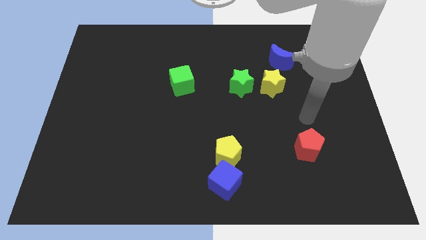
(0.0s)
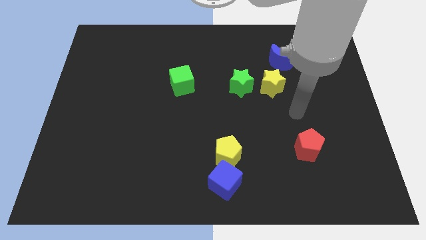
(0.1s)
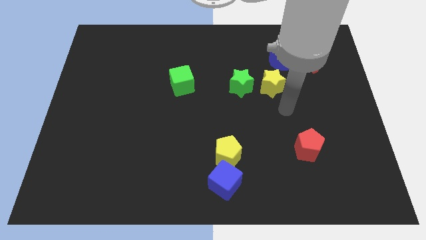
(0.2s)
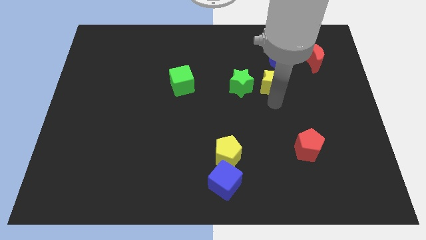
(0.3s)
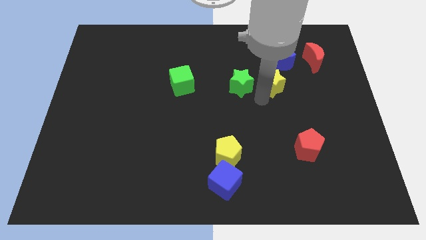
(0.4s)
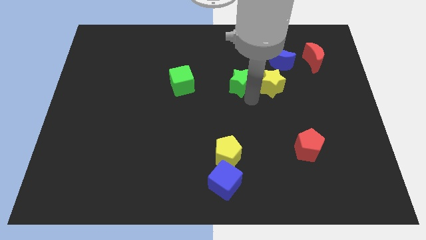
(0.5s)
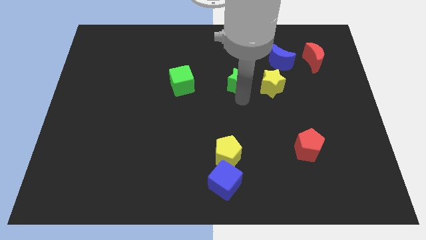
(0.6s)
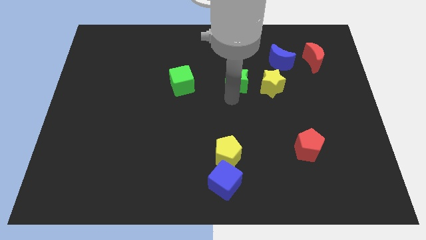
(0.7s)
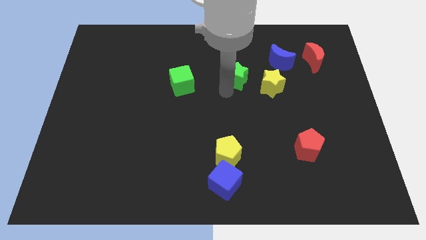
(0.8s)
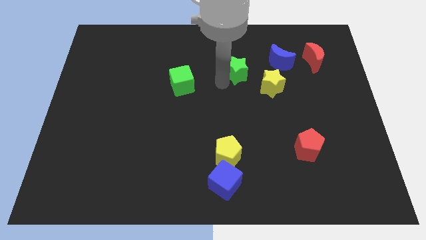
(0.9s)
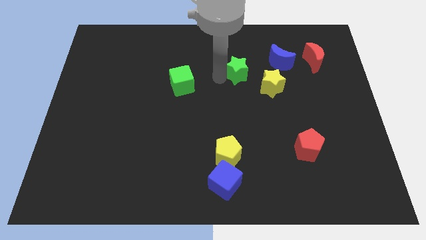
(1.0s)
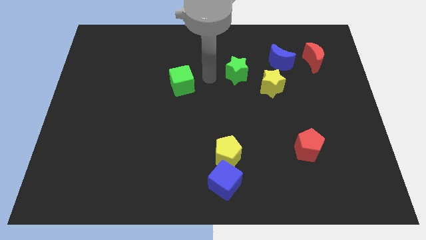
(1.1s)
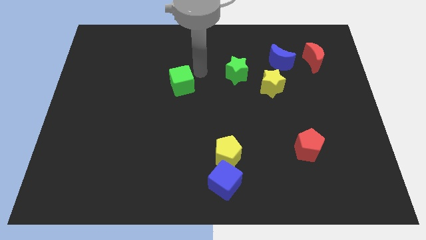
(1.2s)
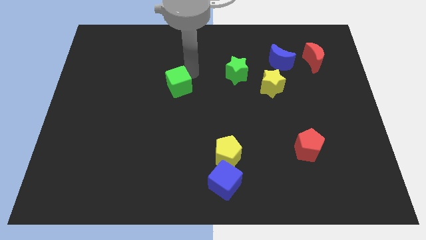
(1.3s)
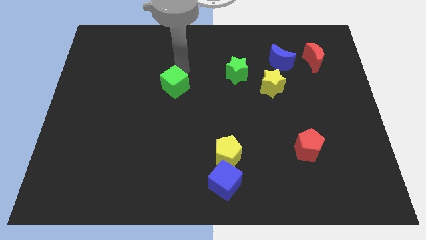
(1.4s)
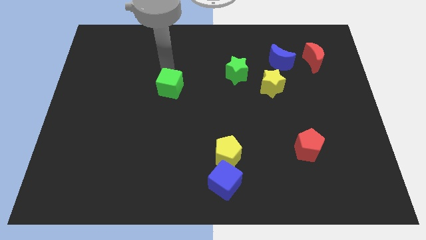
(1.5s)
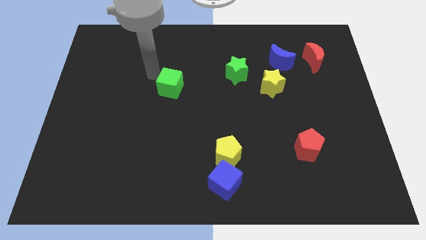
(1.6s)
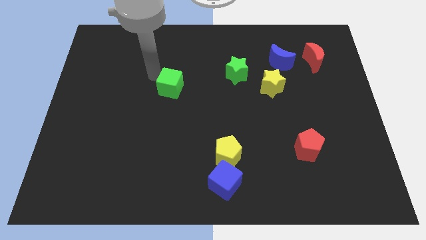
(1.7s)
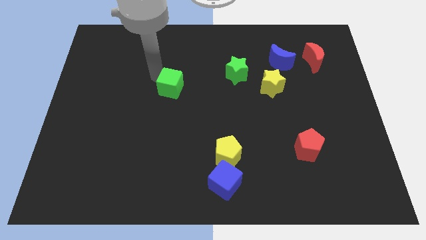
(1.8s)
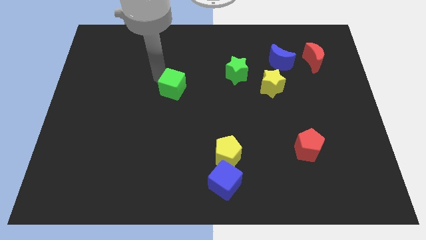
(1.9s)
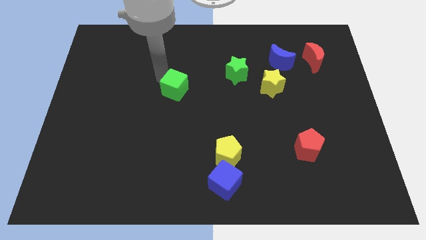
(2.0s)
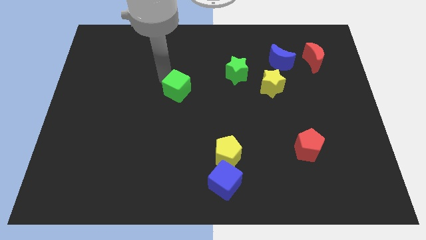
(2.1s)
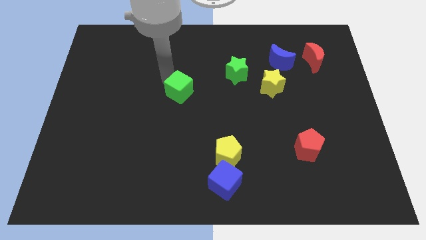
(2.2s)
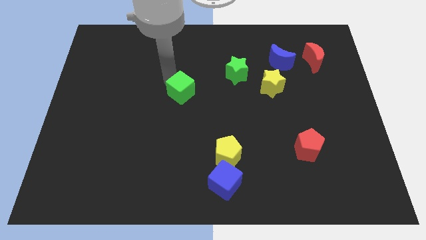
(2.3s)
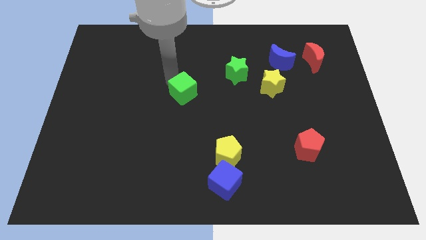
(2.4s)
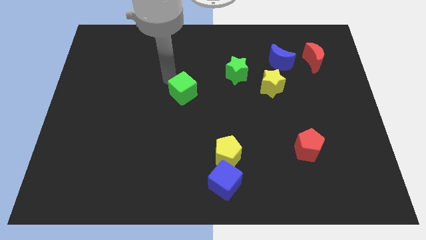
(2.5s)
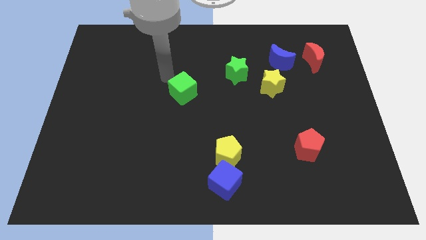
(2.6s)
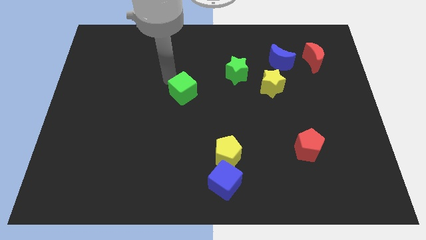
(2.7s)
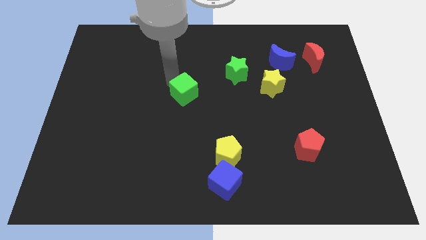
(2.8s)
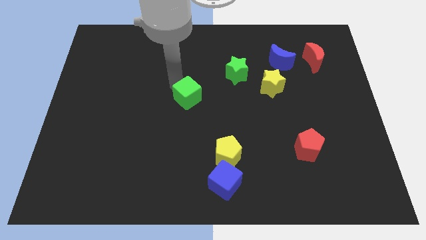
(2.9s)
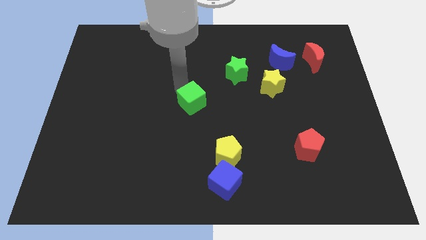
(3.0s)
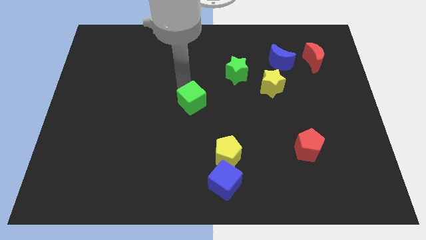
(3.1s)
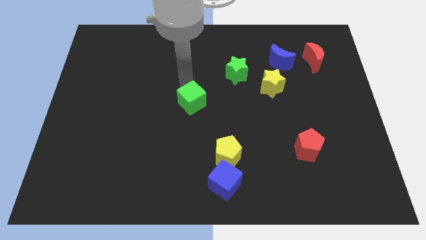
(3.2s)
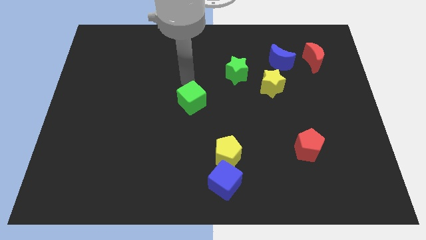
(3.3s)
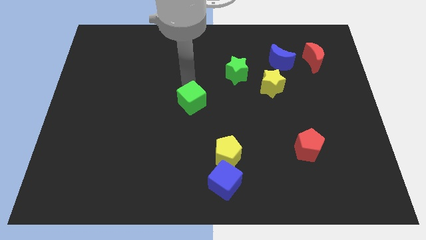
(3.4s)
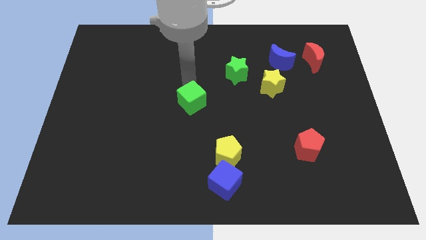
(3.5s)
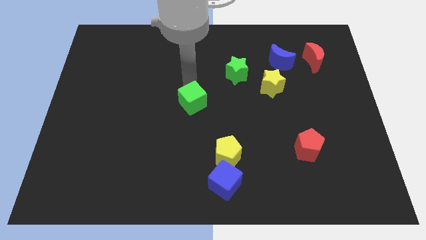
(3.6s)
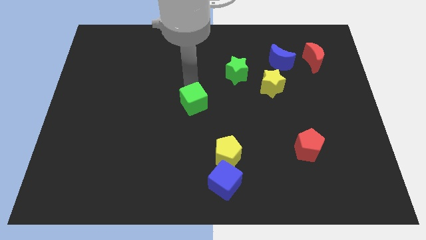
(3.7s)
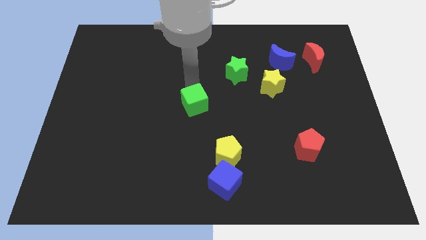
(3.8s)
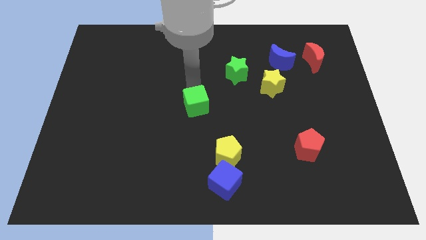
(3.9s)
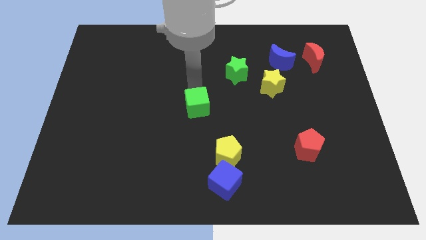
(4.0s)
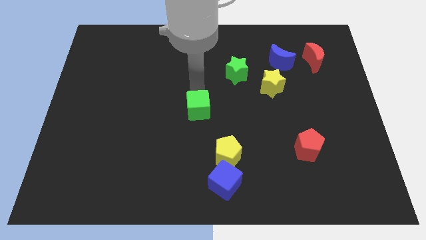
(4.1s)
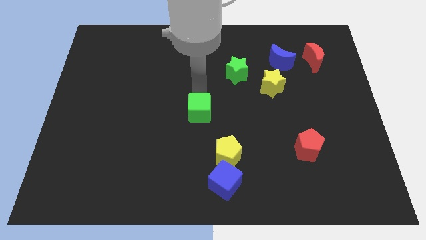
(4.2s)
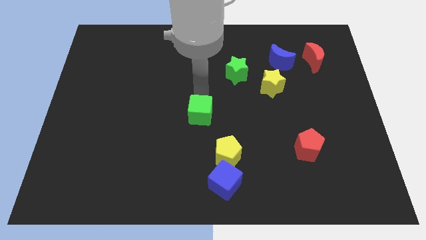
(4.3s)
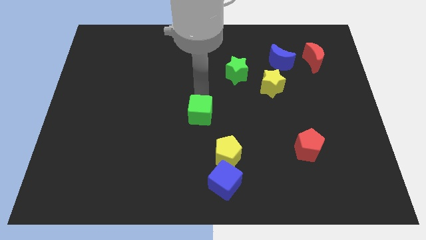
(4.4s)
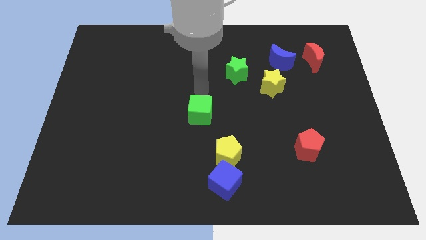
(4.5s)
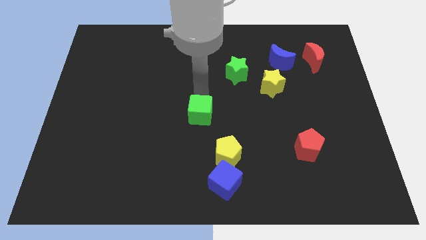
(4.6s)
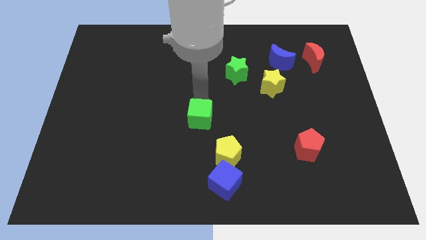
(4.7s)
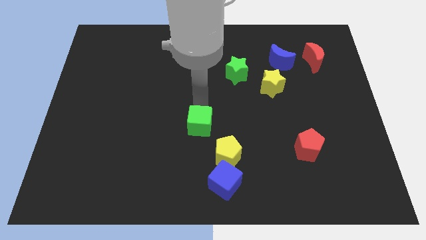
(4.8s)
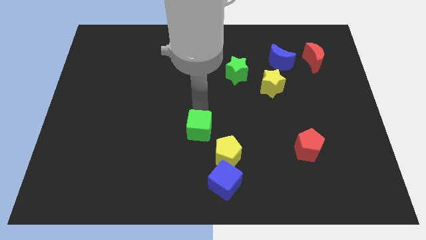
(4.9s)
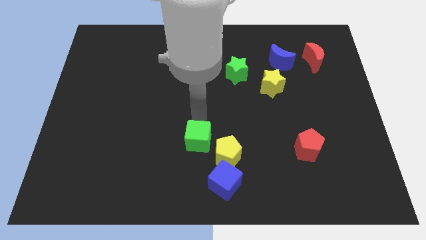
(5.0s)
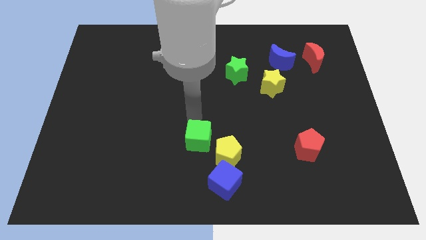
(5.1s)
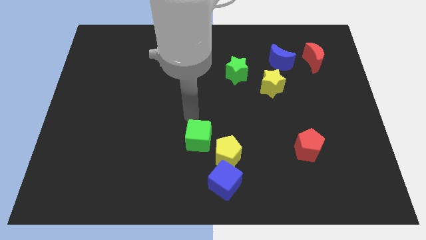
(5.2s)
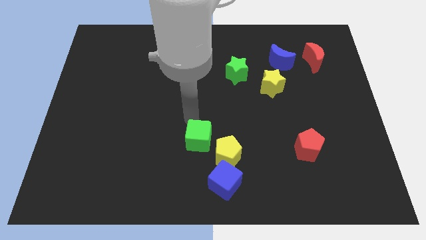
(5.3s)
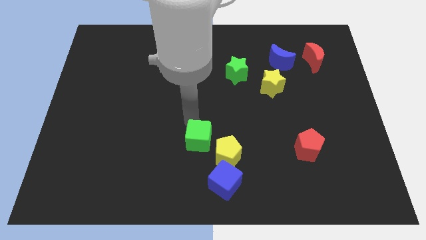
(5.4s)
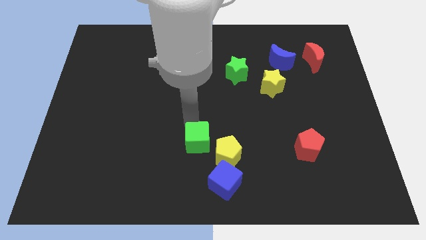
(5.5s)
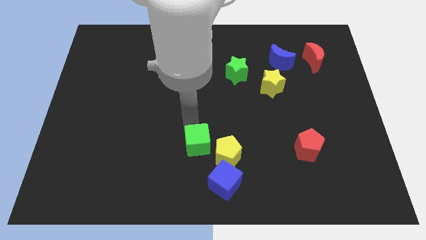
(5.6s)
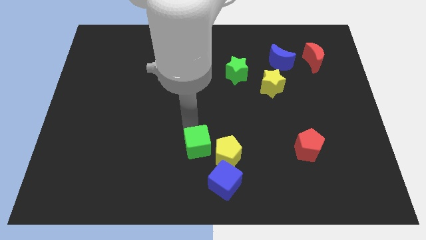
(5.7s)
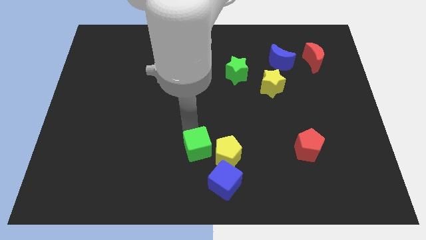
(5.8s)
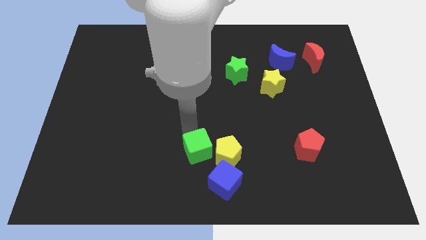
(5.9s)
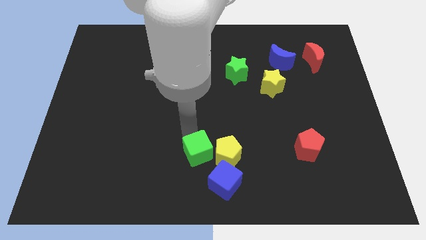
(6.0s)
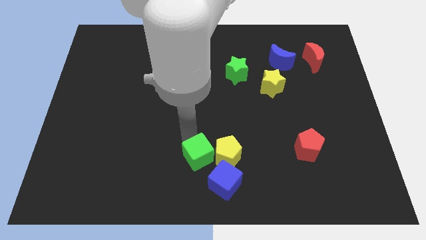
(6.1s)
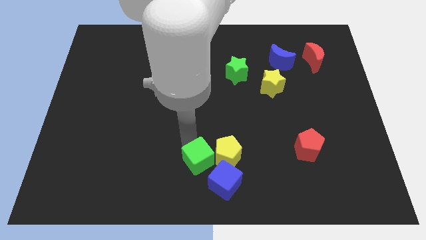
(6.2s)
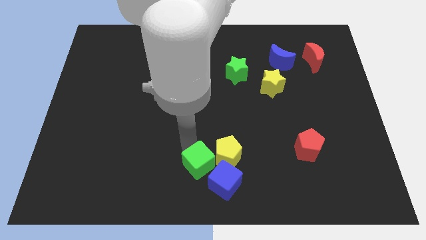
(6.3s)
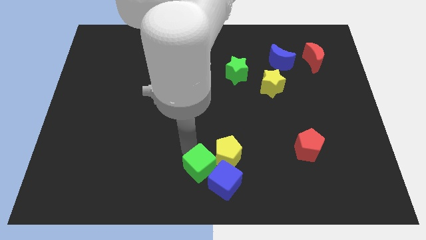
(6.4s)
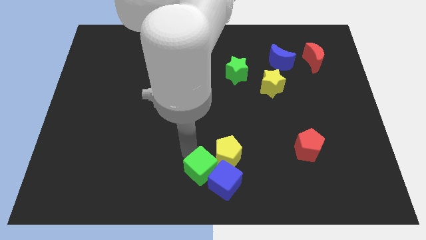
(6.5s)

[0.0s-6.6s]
move the green cube close to the blue cube

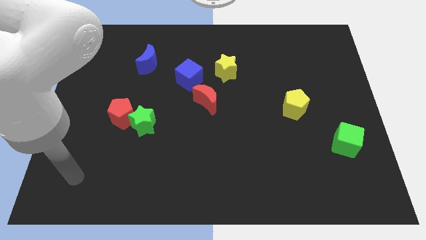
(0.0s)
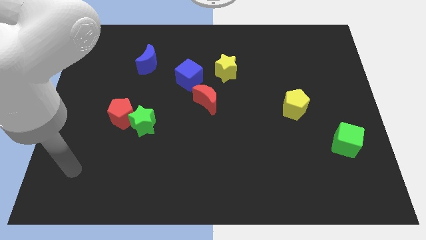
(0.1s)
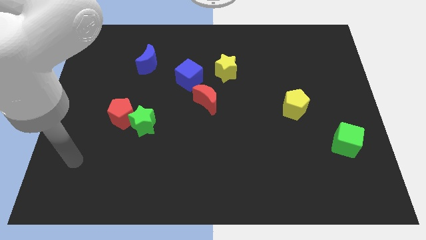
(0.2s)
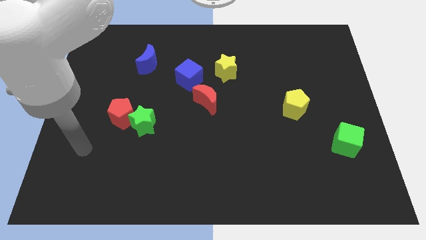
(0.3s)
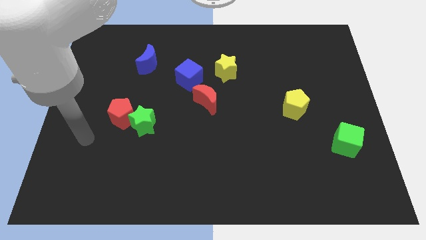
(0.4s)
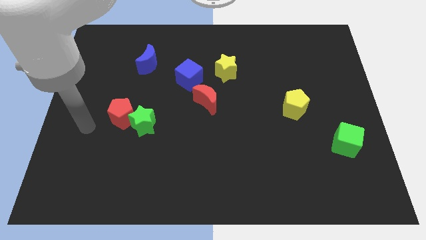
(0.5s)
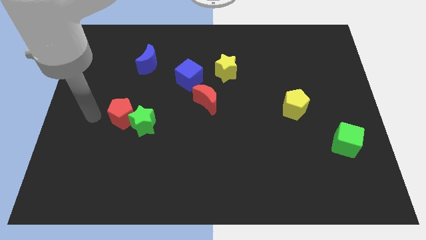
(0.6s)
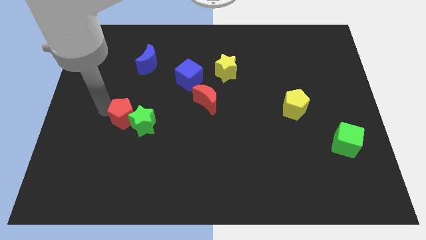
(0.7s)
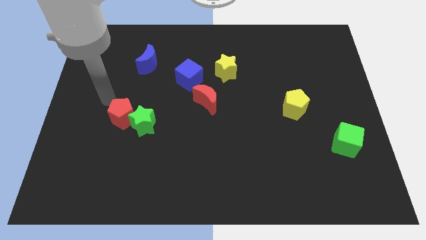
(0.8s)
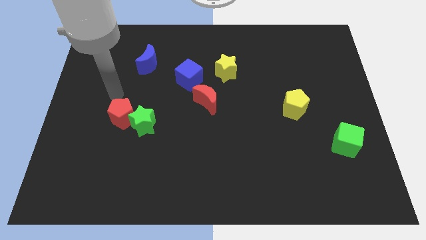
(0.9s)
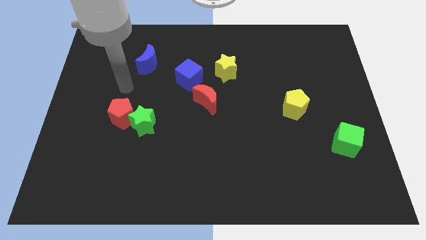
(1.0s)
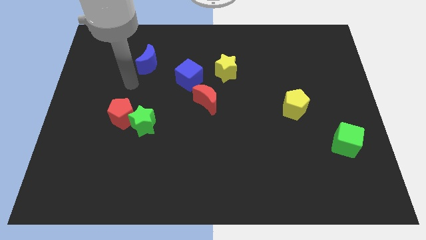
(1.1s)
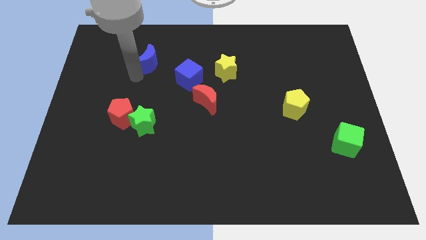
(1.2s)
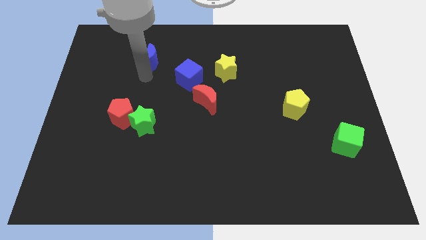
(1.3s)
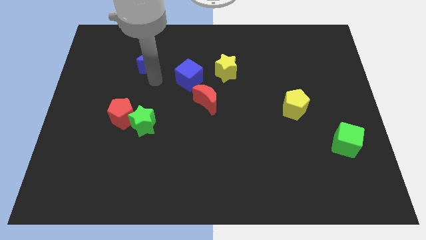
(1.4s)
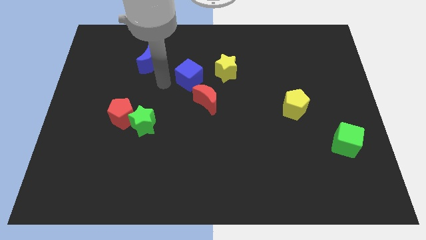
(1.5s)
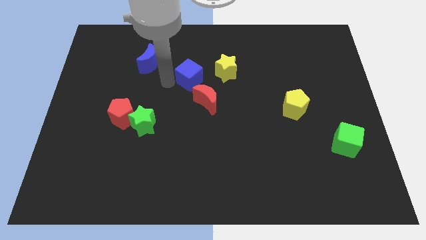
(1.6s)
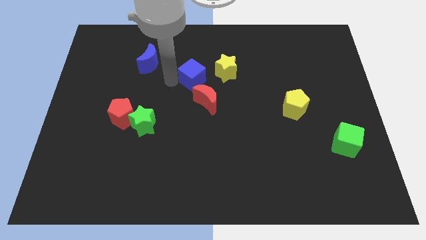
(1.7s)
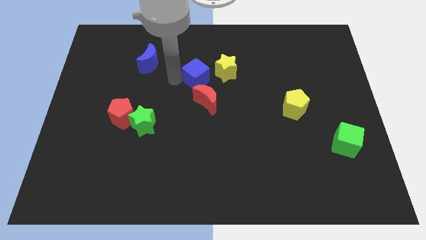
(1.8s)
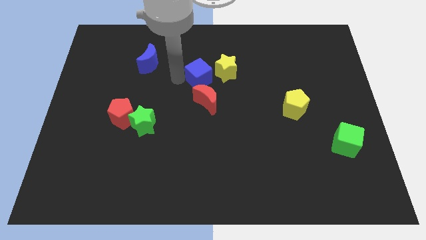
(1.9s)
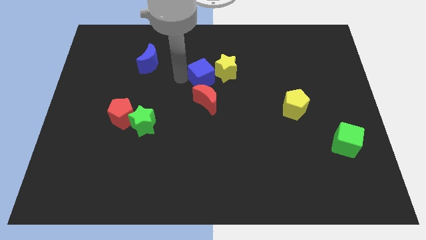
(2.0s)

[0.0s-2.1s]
push the blue cube towards the yellow star
